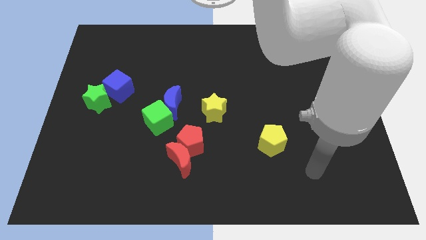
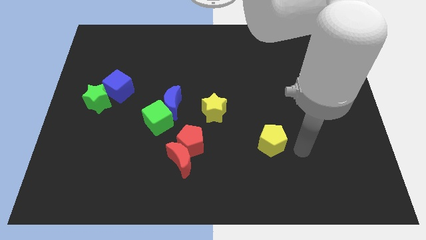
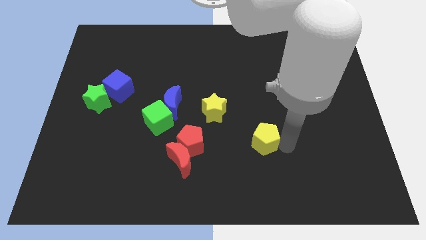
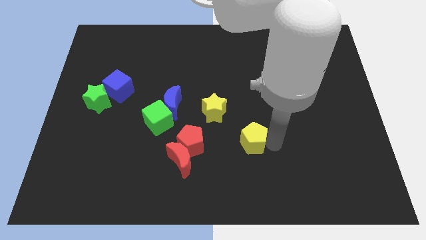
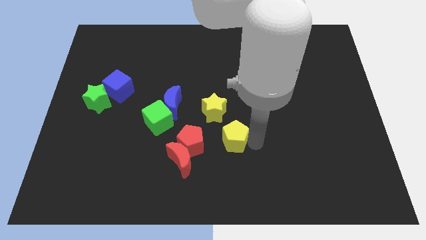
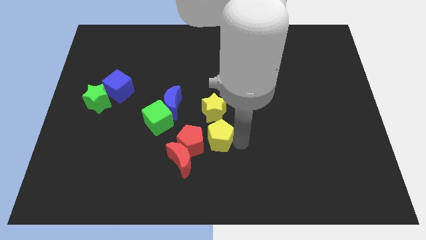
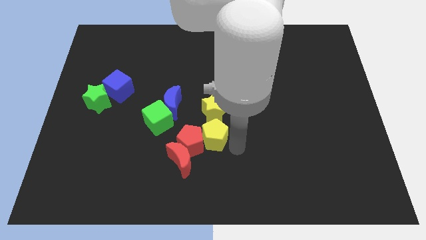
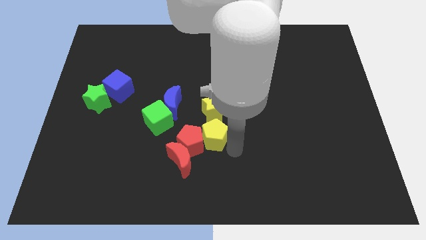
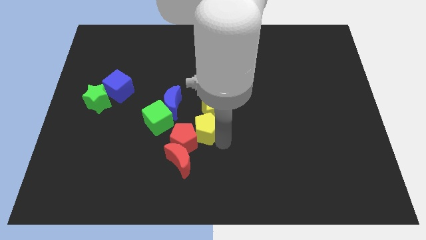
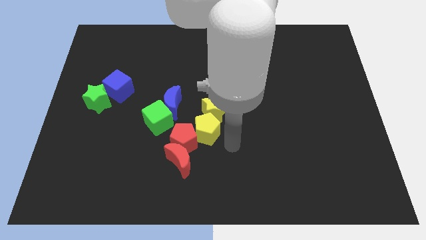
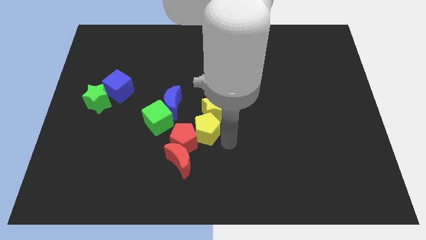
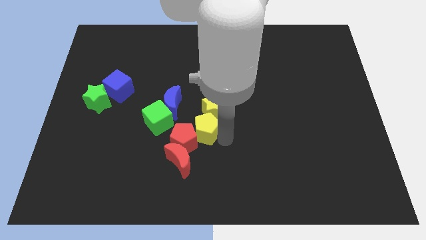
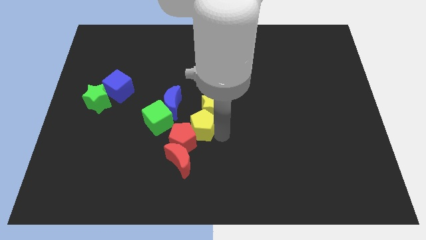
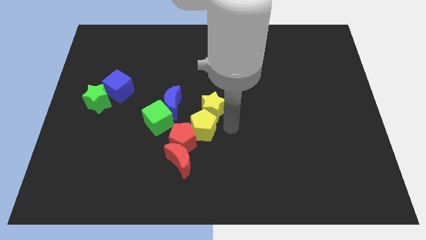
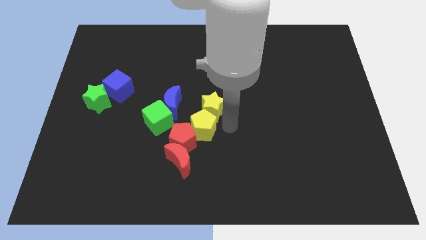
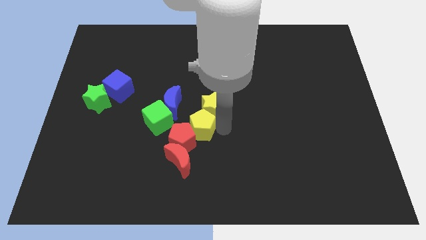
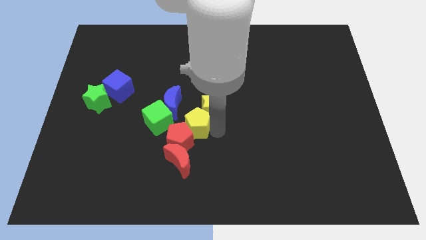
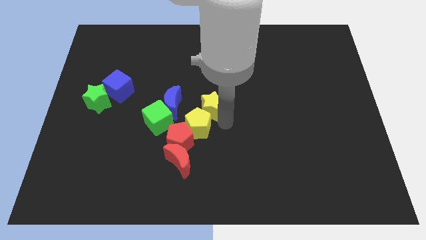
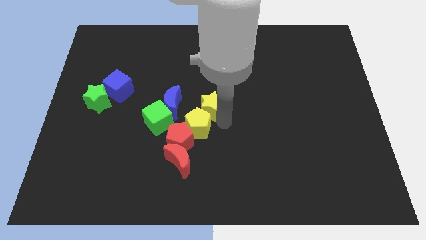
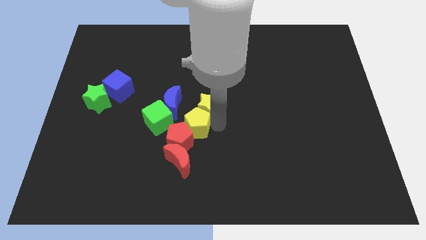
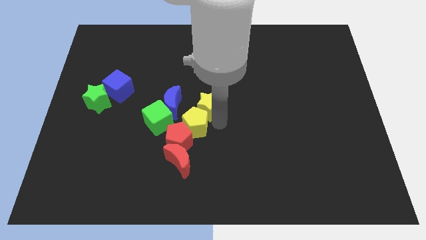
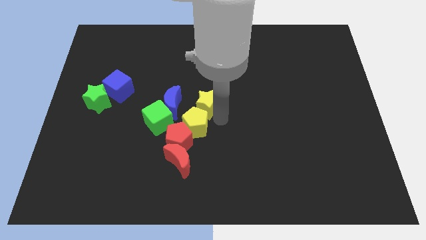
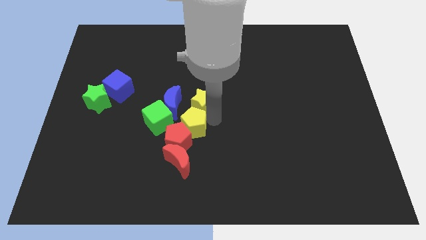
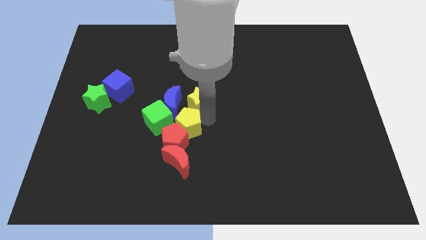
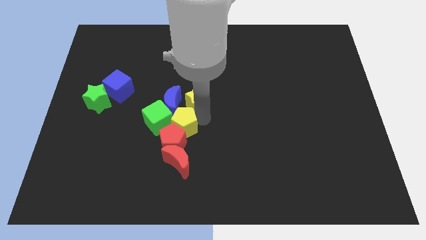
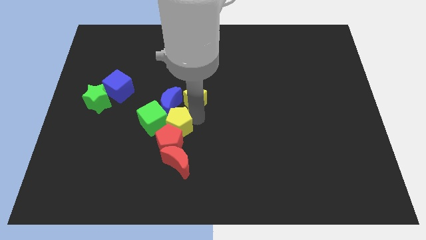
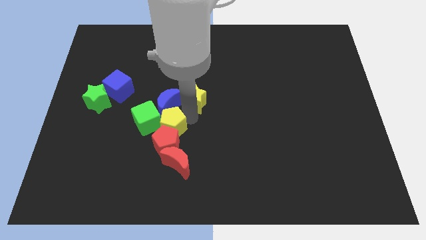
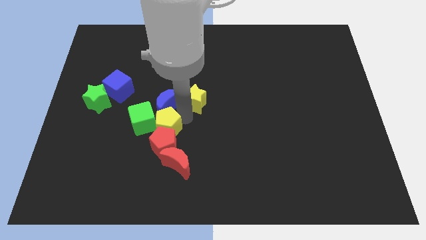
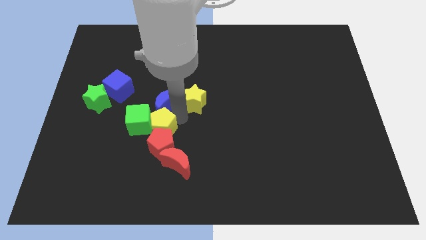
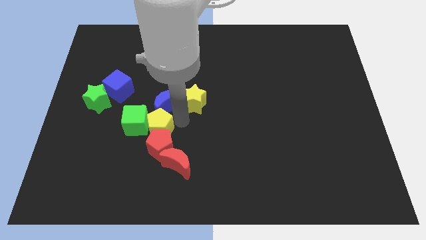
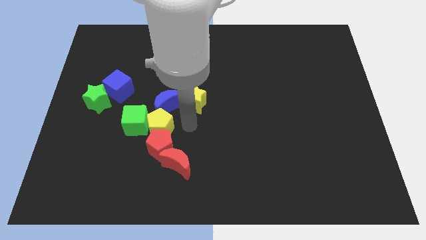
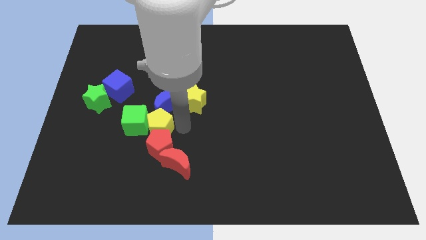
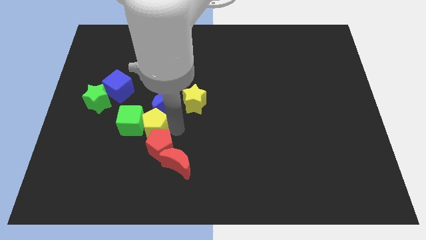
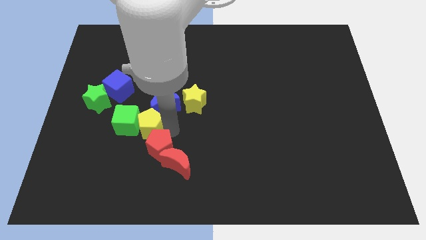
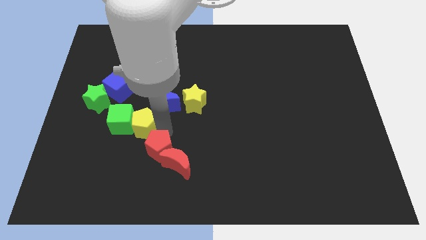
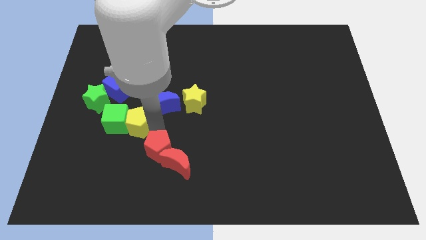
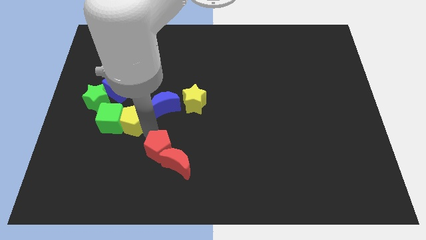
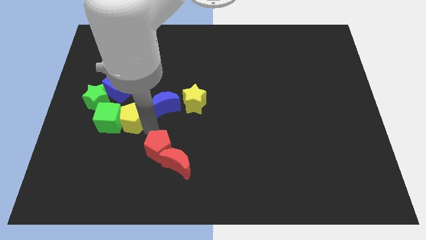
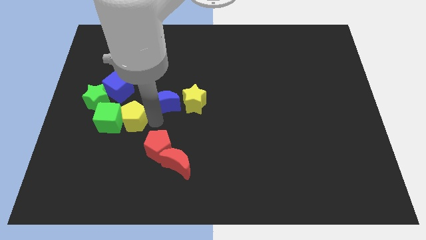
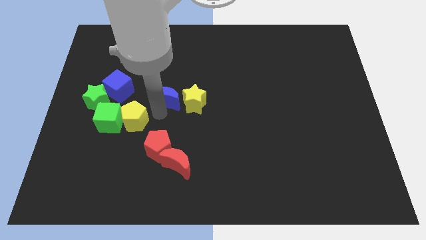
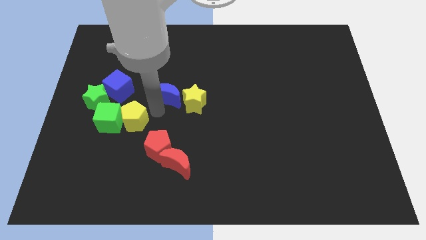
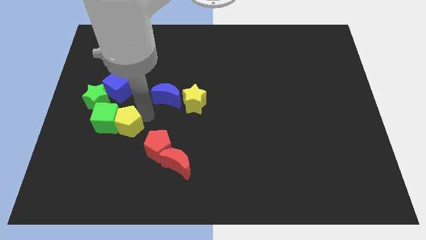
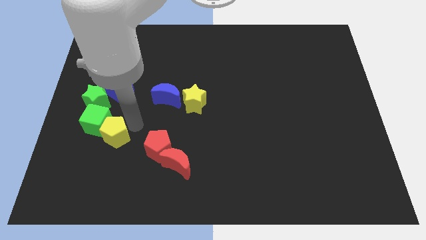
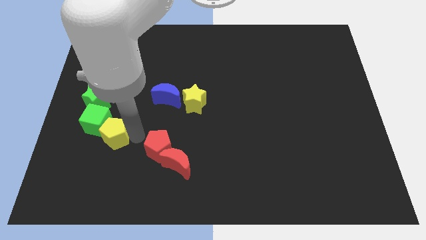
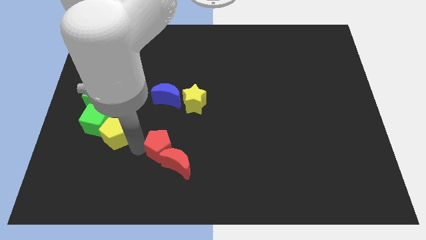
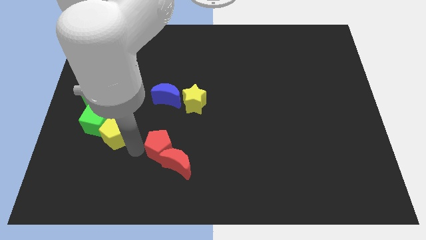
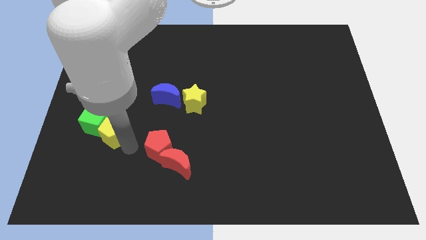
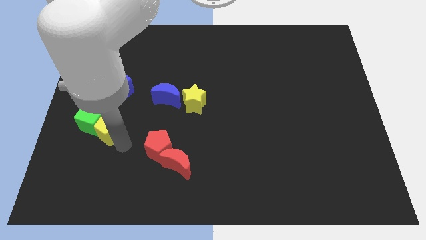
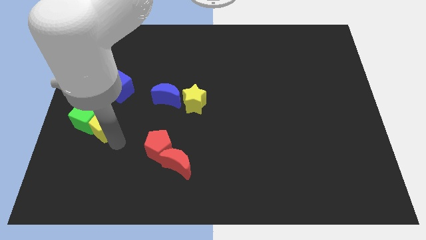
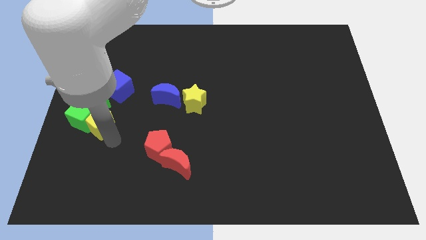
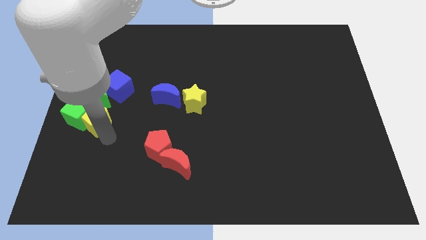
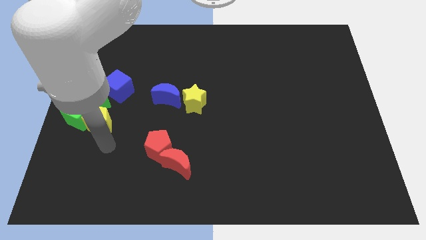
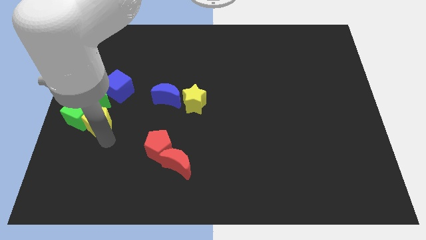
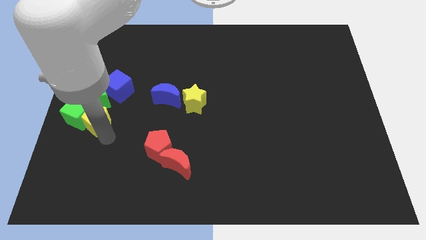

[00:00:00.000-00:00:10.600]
move the yellow pentagon to the bottom left side of the blue cube
